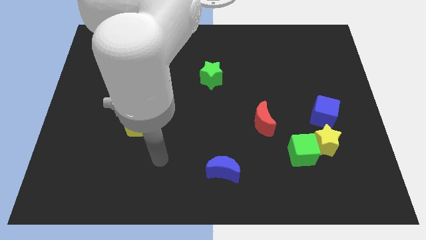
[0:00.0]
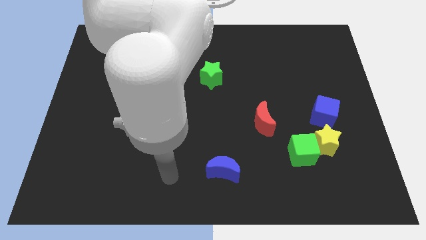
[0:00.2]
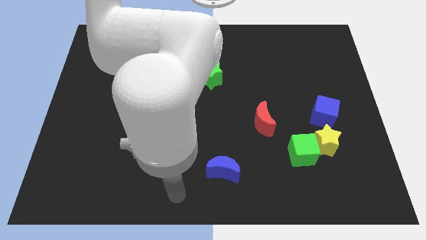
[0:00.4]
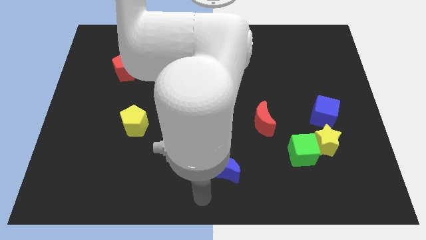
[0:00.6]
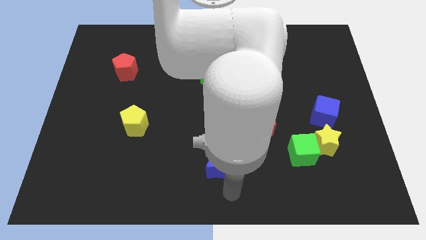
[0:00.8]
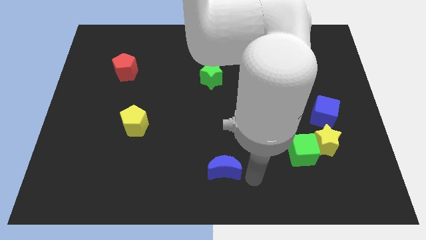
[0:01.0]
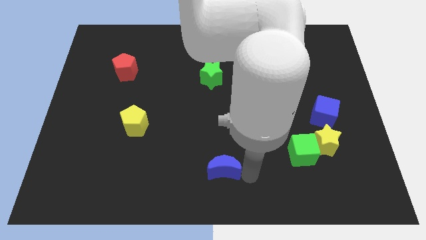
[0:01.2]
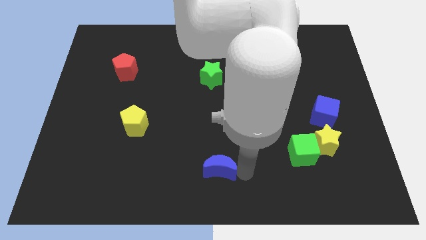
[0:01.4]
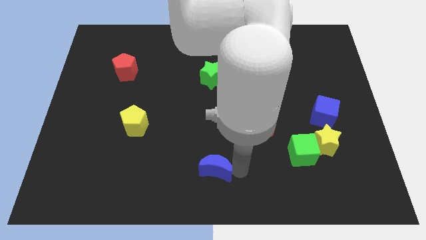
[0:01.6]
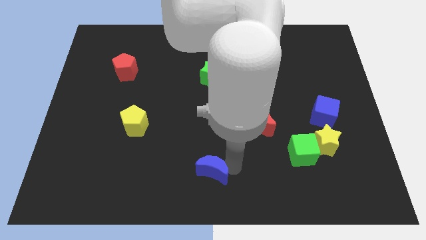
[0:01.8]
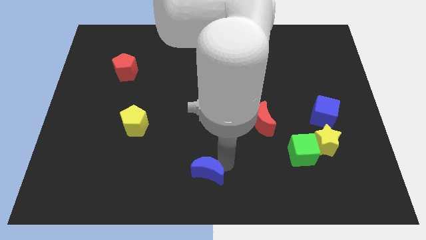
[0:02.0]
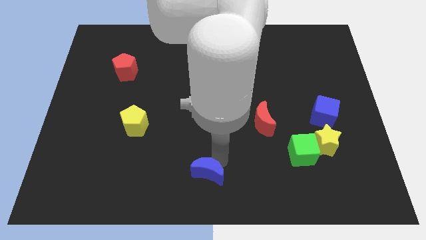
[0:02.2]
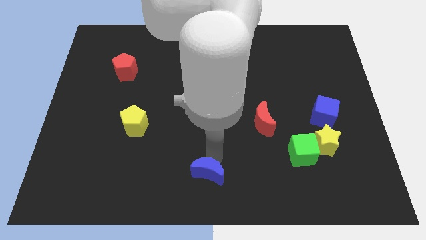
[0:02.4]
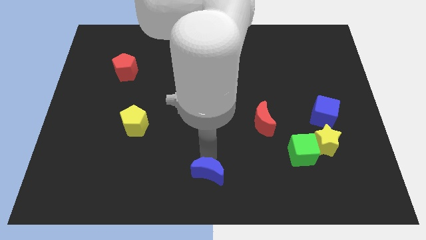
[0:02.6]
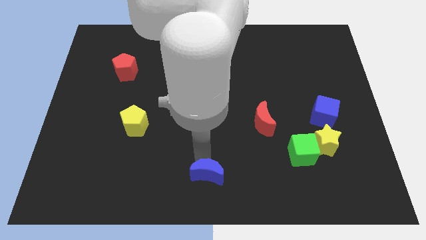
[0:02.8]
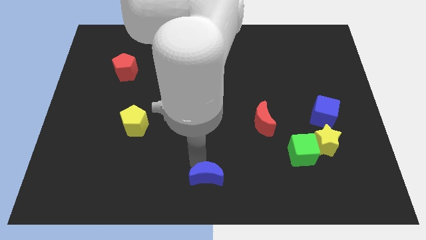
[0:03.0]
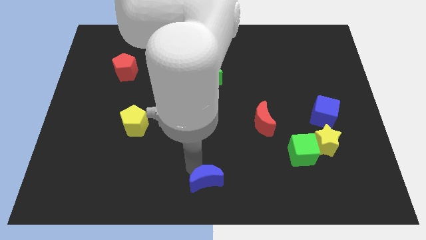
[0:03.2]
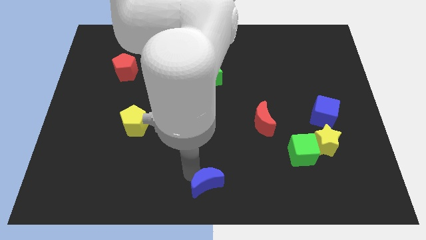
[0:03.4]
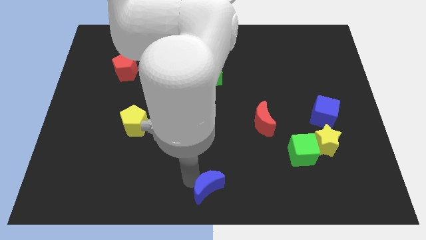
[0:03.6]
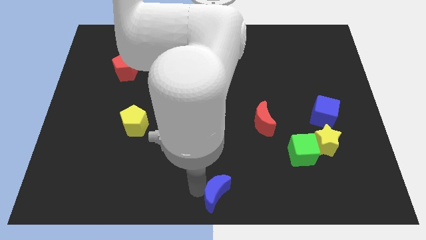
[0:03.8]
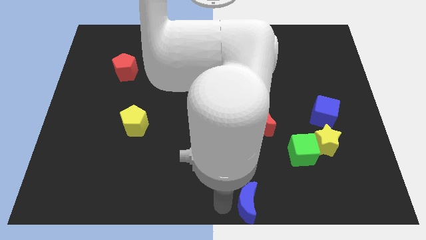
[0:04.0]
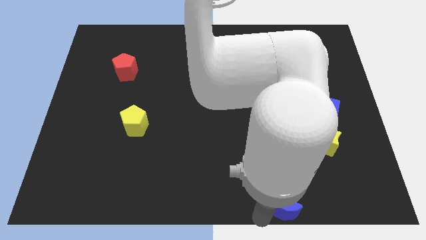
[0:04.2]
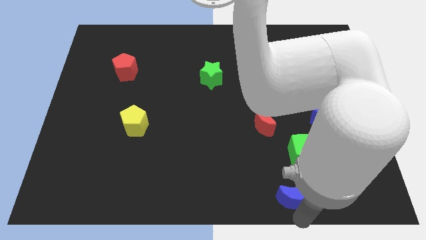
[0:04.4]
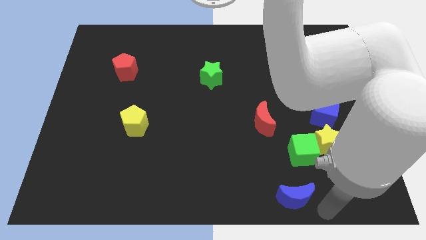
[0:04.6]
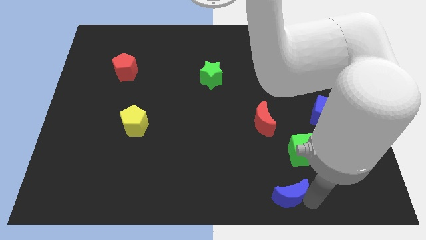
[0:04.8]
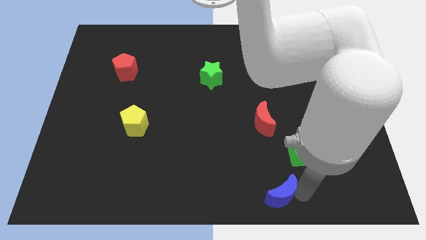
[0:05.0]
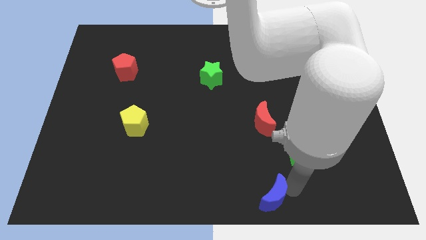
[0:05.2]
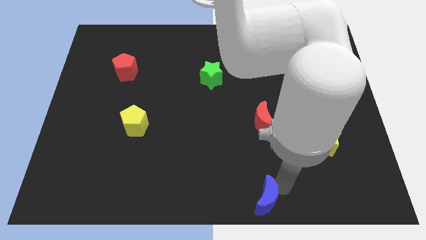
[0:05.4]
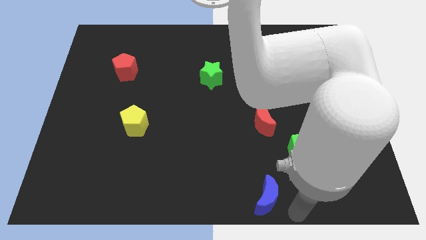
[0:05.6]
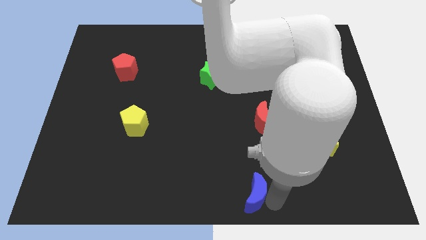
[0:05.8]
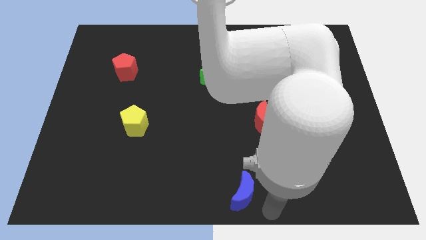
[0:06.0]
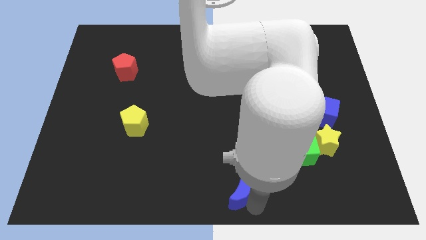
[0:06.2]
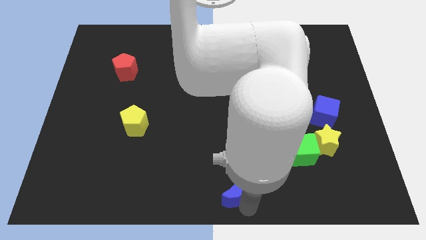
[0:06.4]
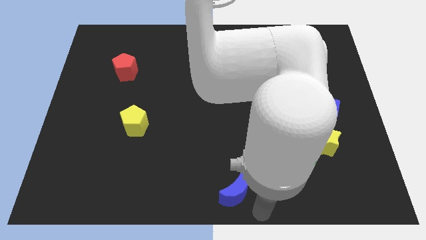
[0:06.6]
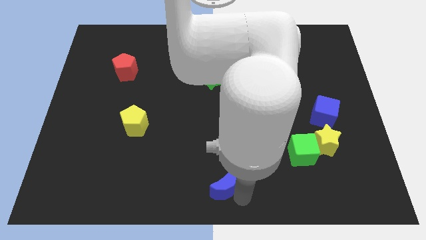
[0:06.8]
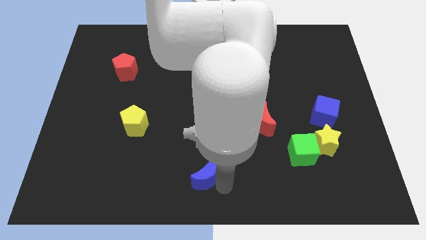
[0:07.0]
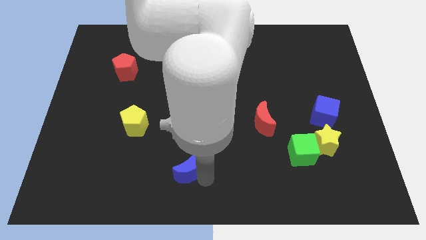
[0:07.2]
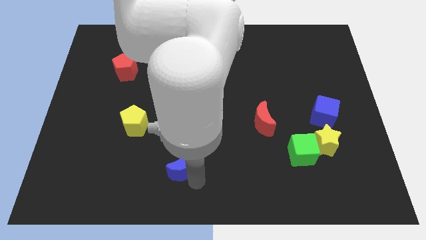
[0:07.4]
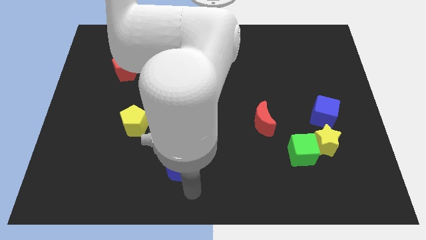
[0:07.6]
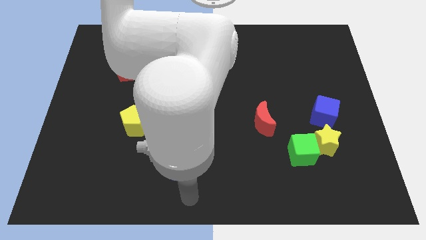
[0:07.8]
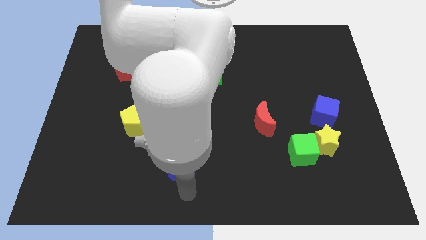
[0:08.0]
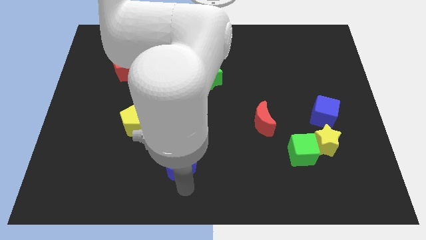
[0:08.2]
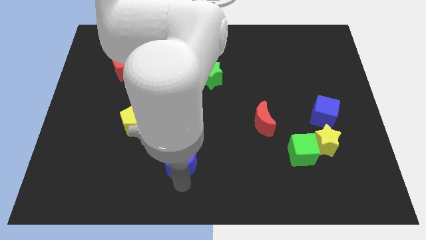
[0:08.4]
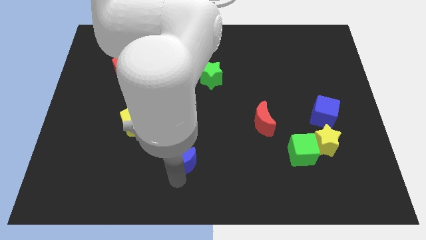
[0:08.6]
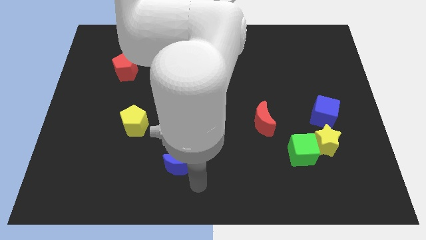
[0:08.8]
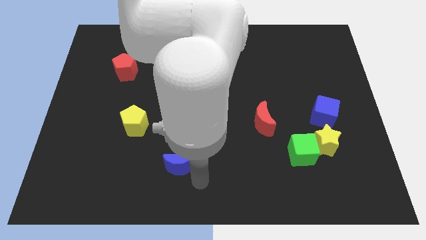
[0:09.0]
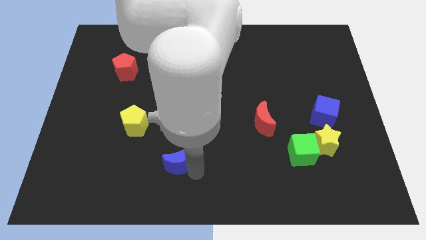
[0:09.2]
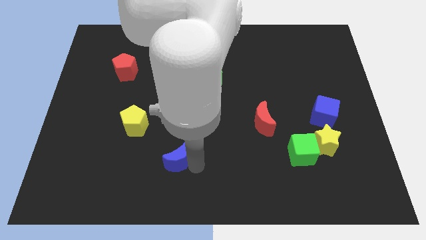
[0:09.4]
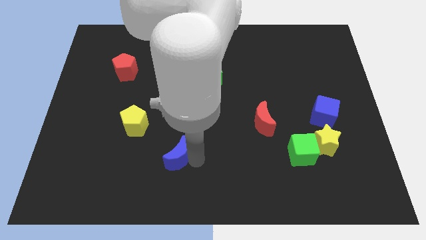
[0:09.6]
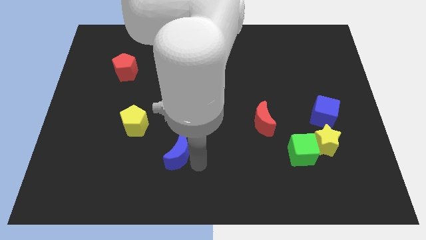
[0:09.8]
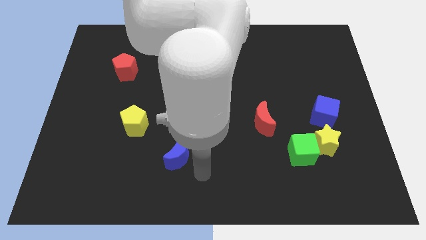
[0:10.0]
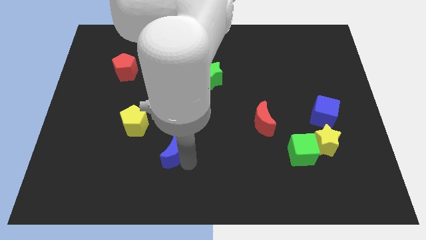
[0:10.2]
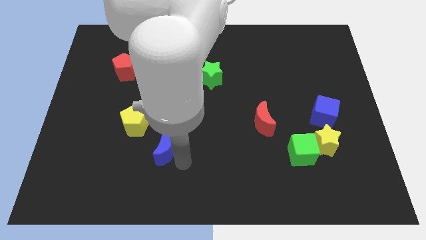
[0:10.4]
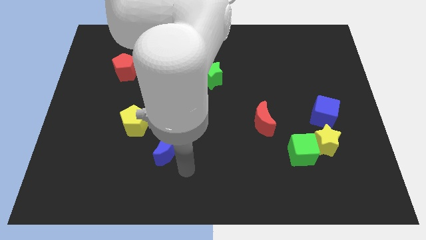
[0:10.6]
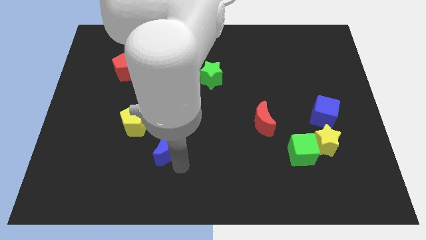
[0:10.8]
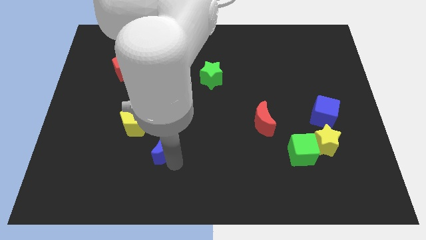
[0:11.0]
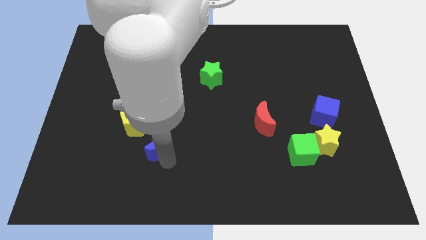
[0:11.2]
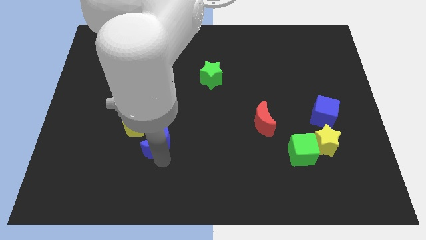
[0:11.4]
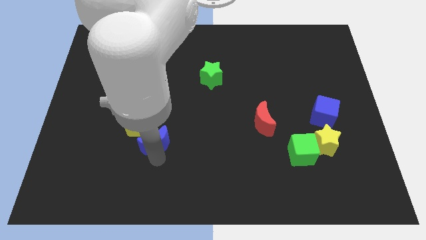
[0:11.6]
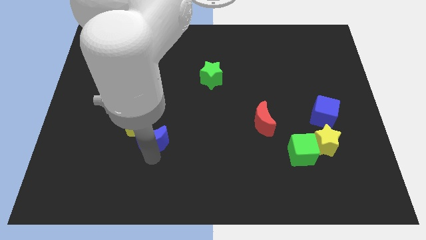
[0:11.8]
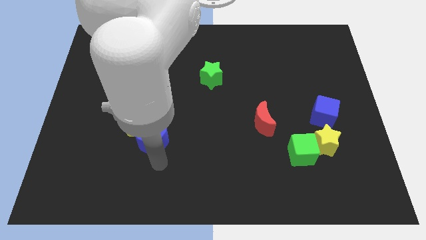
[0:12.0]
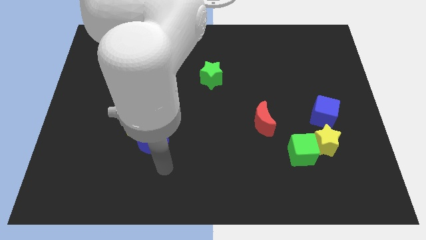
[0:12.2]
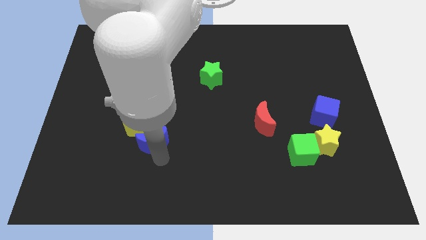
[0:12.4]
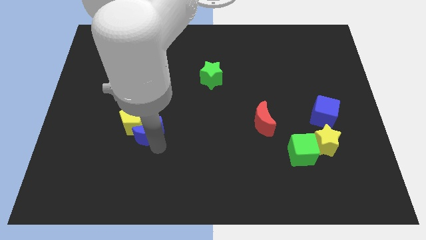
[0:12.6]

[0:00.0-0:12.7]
put the blue moon close to the yellow pentagon

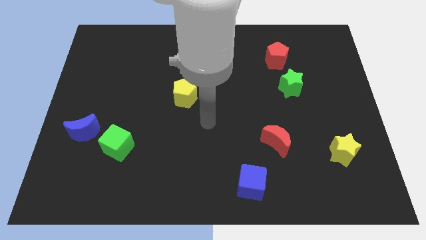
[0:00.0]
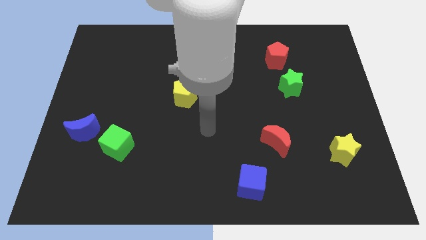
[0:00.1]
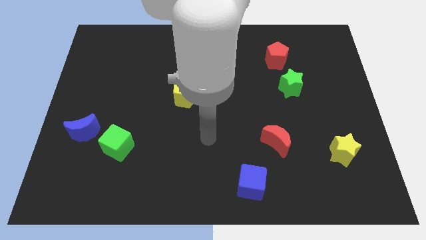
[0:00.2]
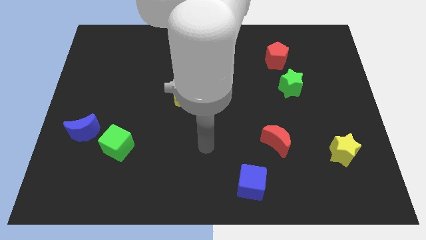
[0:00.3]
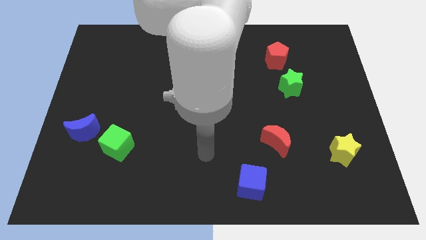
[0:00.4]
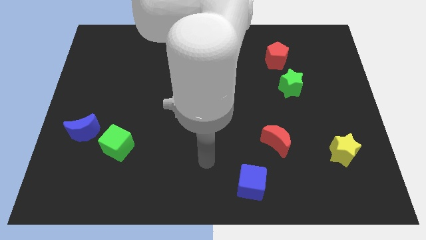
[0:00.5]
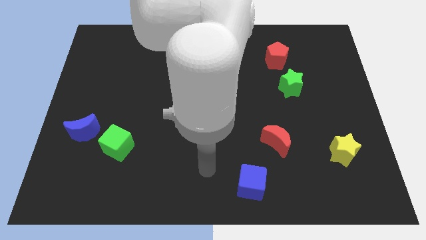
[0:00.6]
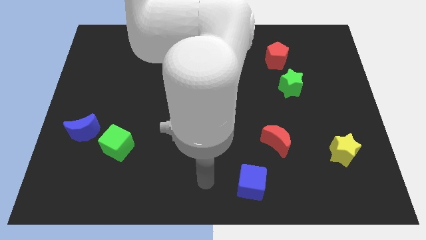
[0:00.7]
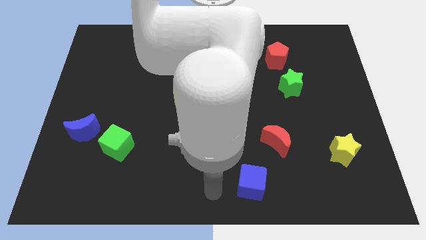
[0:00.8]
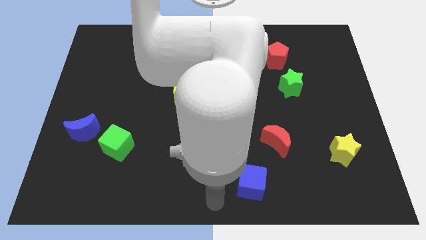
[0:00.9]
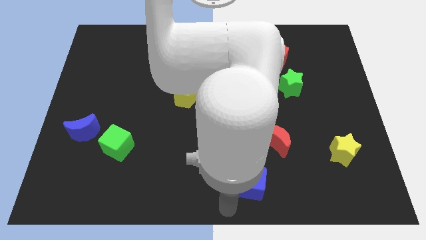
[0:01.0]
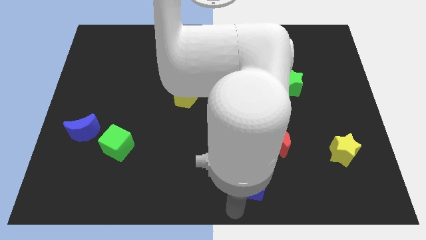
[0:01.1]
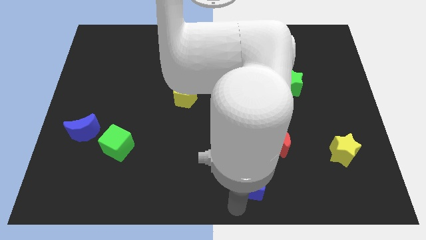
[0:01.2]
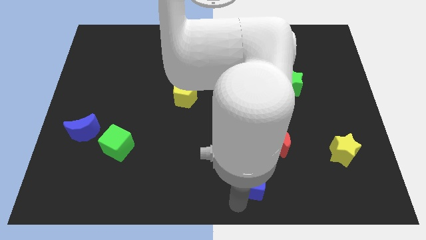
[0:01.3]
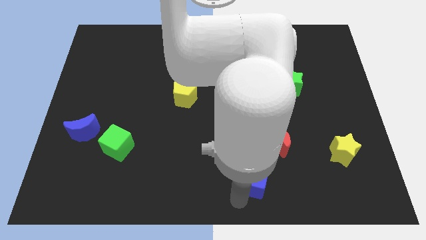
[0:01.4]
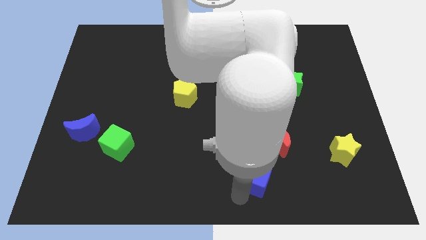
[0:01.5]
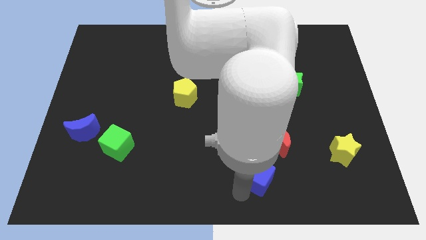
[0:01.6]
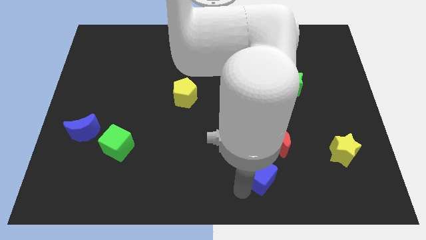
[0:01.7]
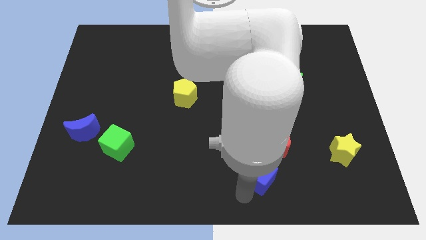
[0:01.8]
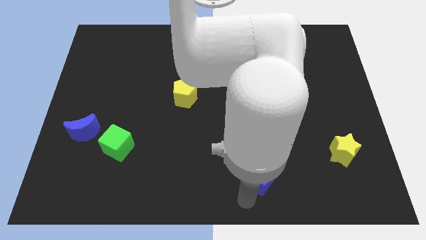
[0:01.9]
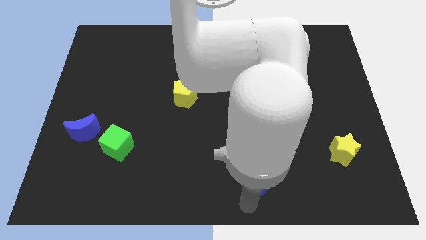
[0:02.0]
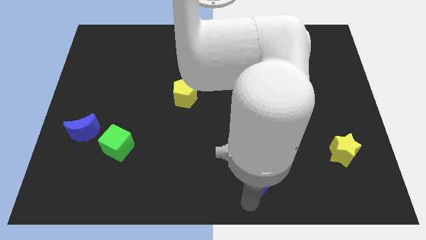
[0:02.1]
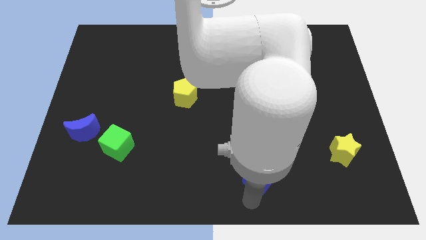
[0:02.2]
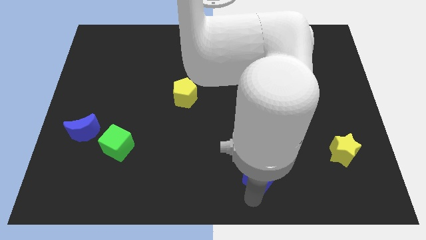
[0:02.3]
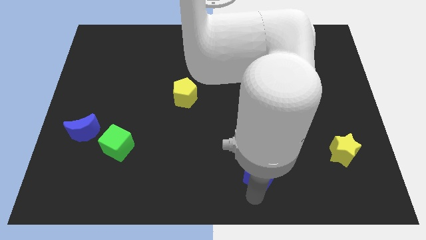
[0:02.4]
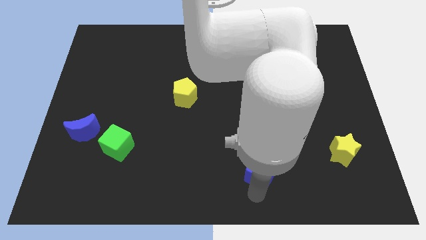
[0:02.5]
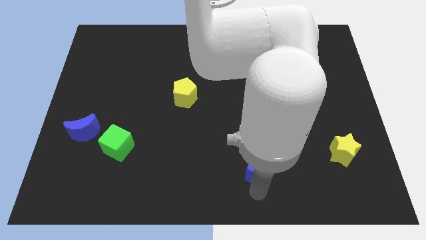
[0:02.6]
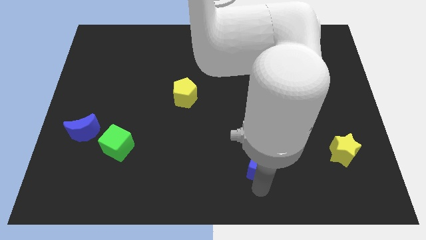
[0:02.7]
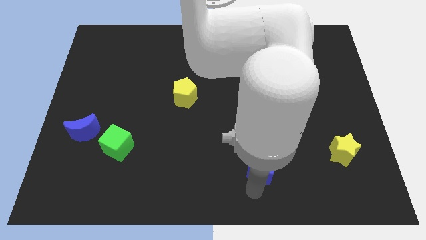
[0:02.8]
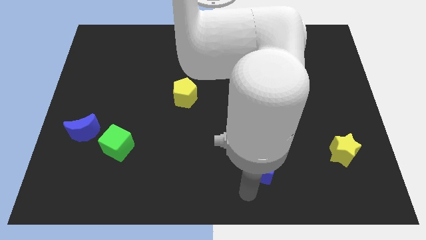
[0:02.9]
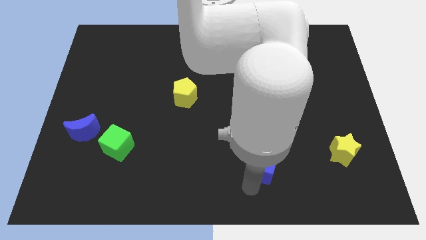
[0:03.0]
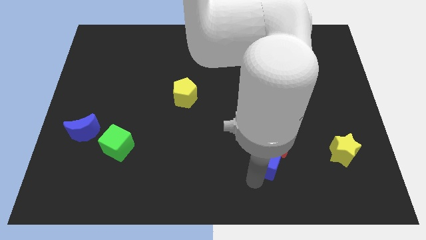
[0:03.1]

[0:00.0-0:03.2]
push the blue cube next to the red moon
